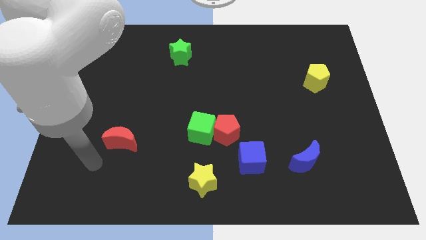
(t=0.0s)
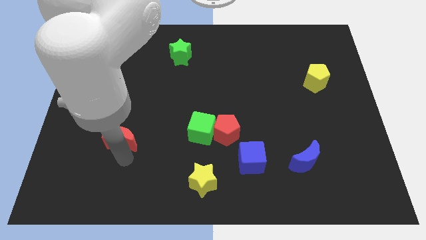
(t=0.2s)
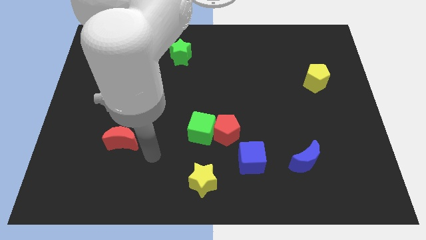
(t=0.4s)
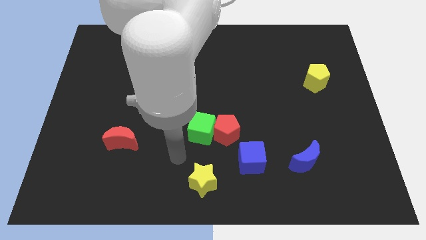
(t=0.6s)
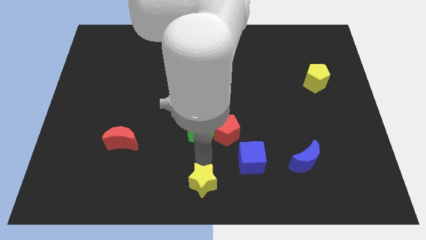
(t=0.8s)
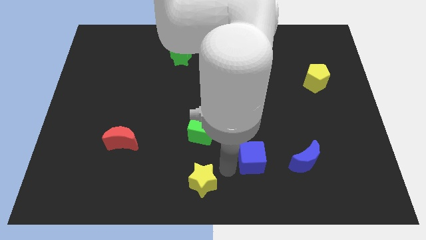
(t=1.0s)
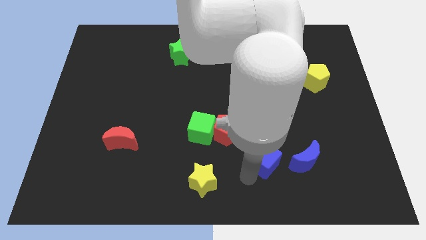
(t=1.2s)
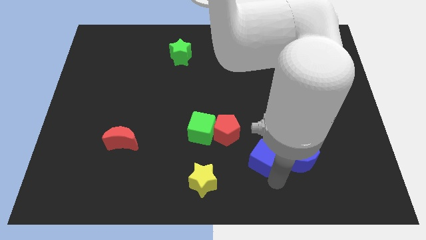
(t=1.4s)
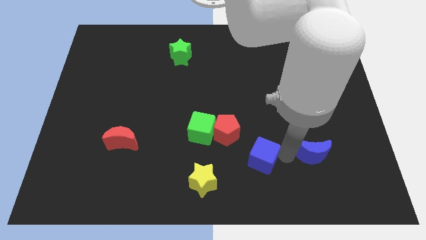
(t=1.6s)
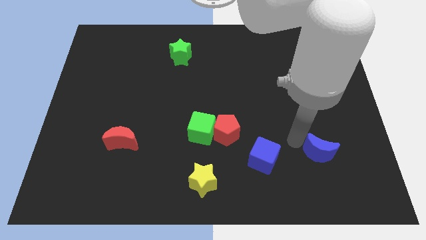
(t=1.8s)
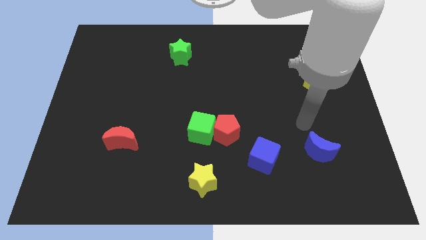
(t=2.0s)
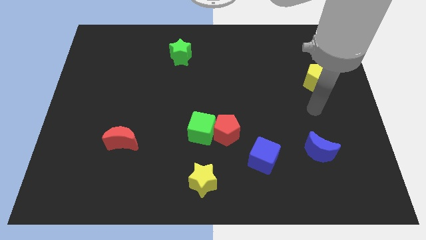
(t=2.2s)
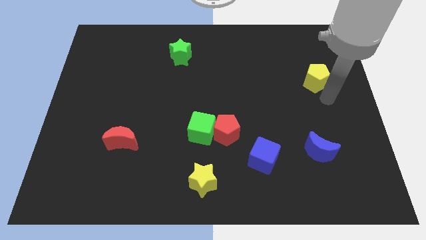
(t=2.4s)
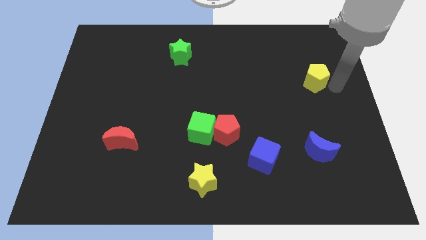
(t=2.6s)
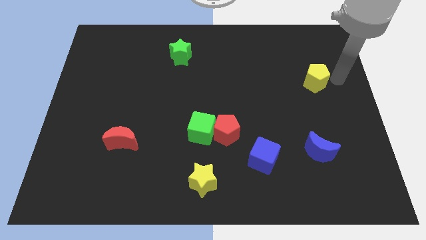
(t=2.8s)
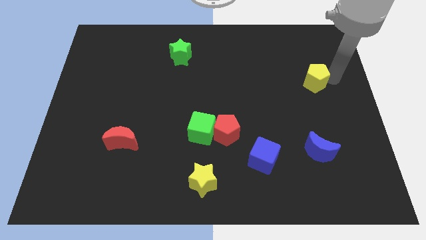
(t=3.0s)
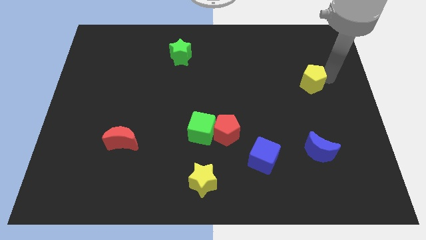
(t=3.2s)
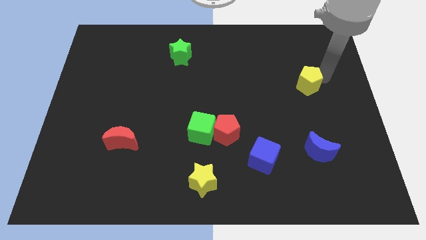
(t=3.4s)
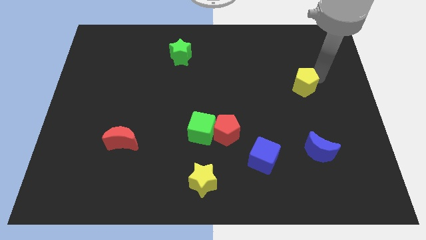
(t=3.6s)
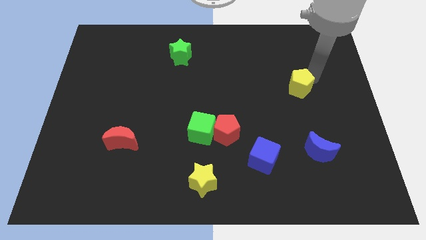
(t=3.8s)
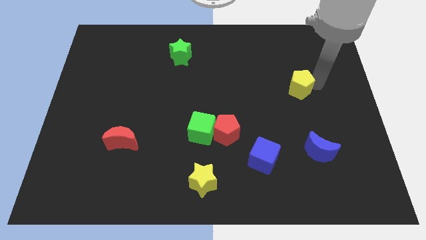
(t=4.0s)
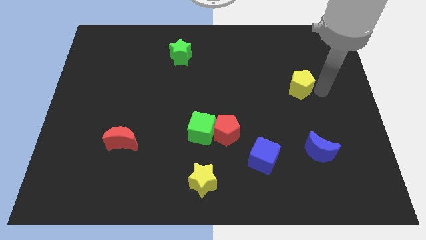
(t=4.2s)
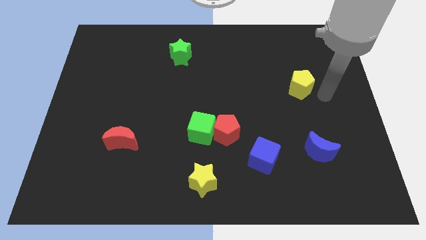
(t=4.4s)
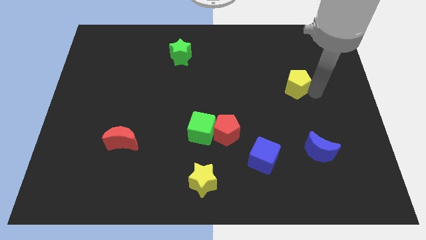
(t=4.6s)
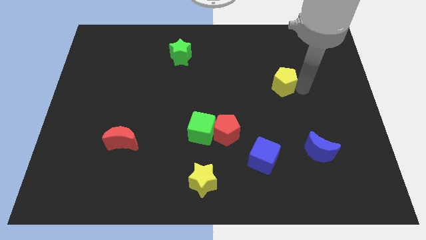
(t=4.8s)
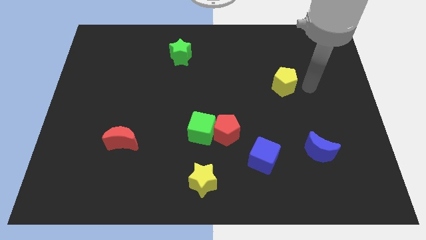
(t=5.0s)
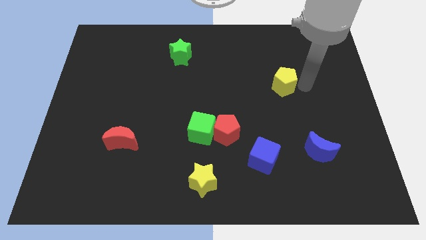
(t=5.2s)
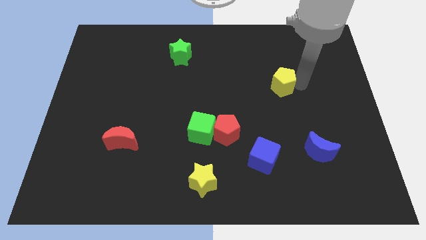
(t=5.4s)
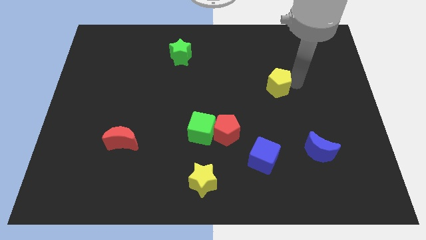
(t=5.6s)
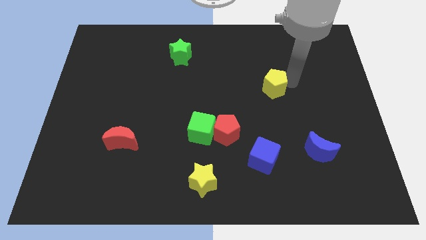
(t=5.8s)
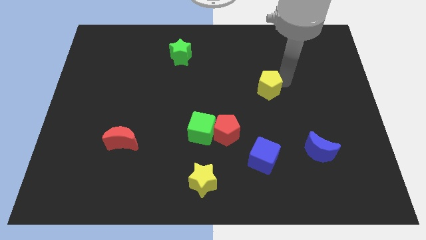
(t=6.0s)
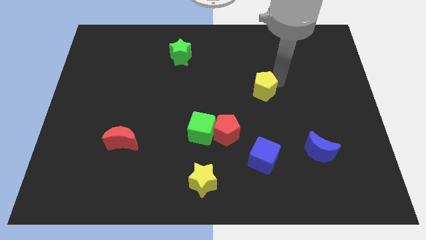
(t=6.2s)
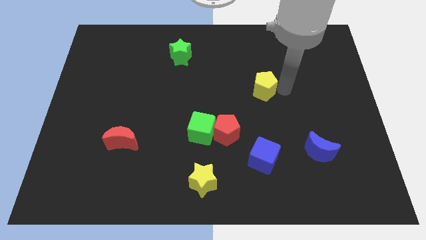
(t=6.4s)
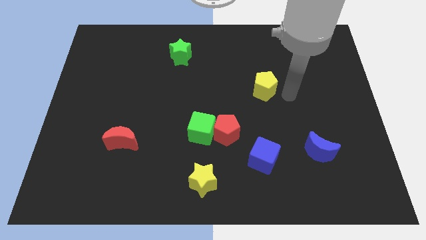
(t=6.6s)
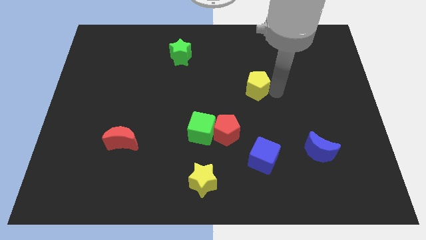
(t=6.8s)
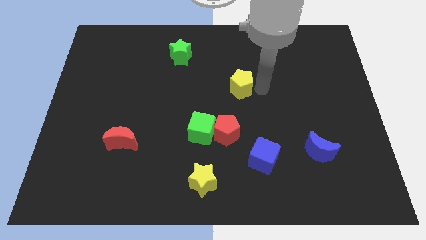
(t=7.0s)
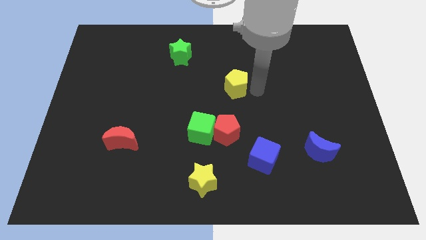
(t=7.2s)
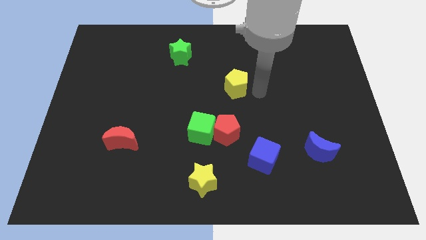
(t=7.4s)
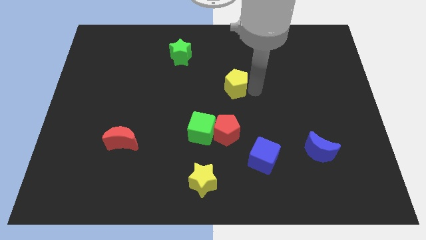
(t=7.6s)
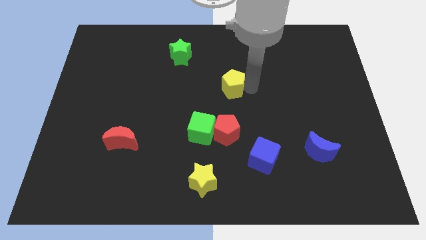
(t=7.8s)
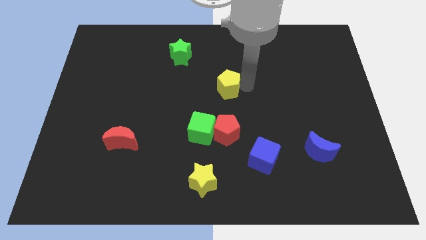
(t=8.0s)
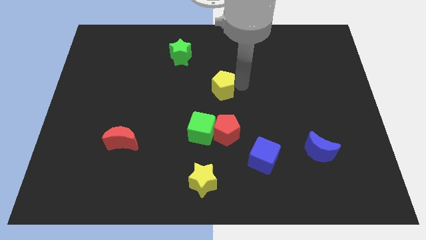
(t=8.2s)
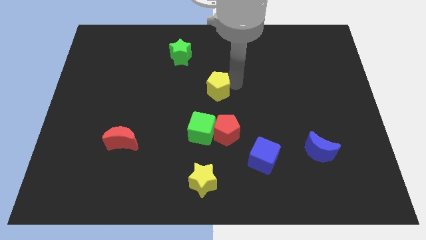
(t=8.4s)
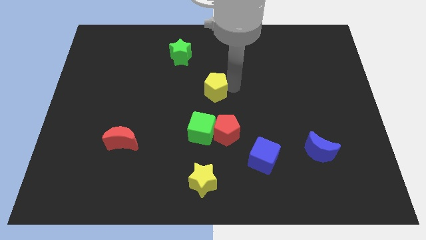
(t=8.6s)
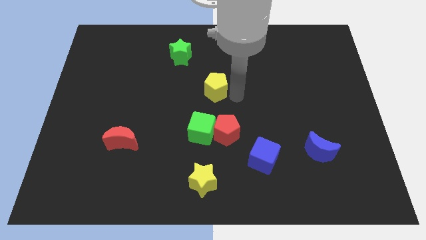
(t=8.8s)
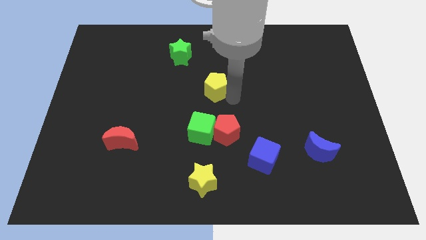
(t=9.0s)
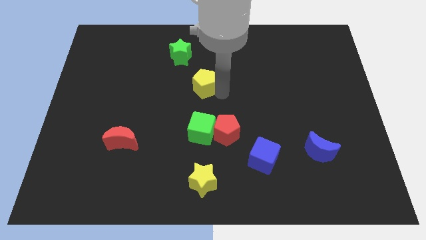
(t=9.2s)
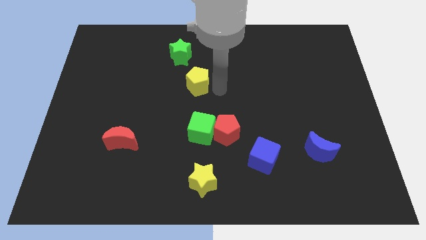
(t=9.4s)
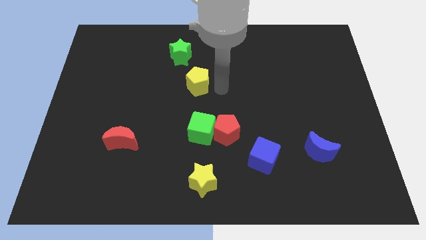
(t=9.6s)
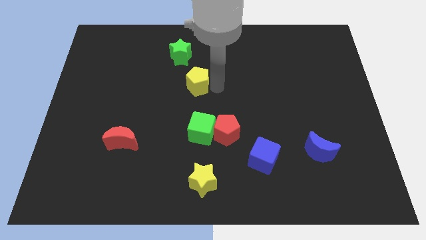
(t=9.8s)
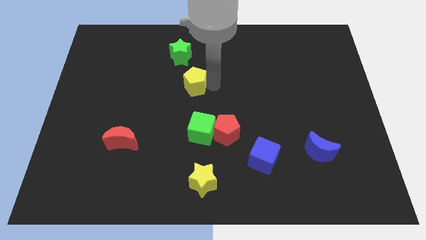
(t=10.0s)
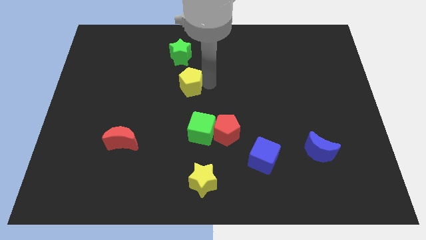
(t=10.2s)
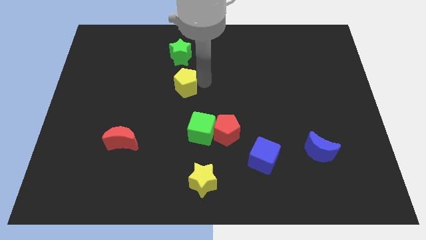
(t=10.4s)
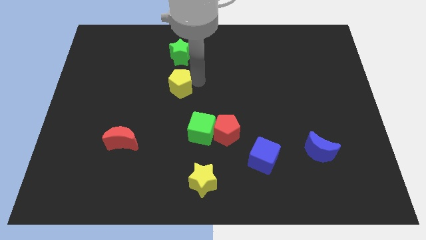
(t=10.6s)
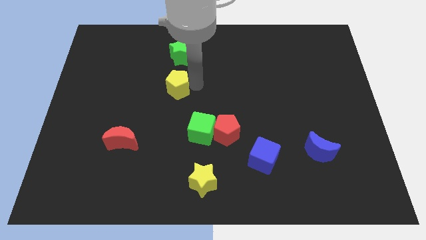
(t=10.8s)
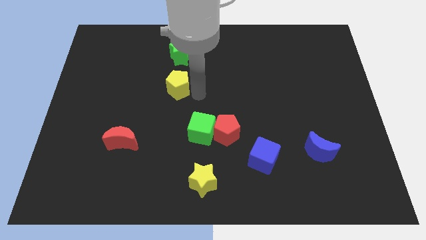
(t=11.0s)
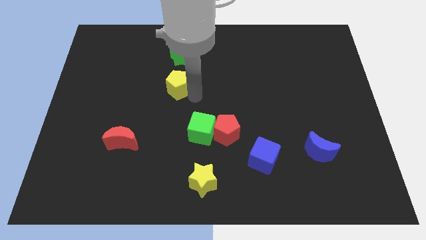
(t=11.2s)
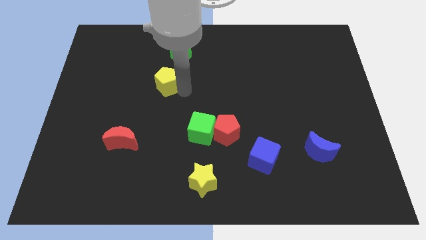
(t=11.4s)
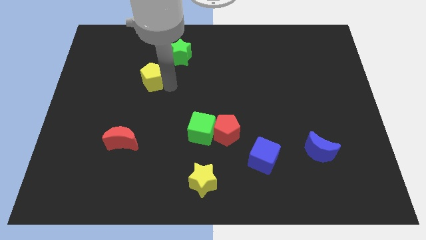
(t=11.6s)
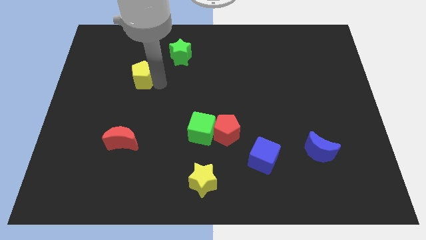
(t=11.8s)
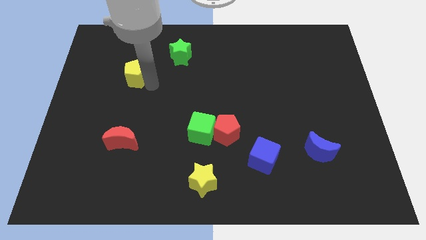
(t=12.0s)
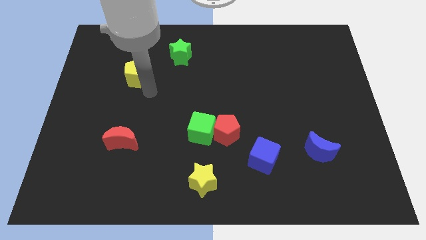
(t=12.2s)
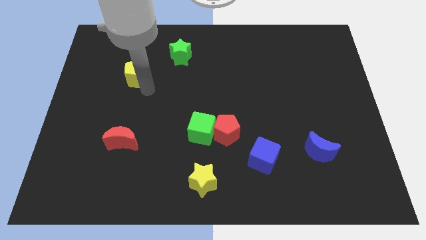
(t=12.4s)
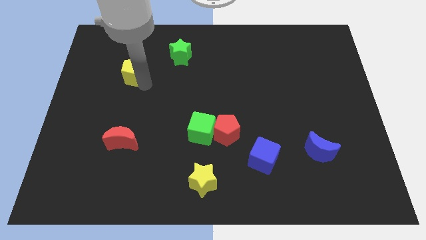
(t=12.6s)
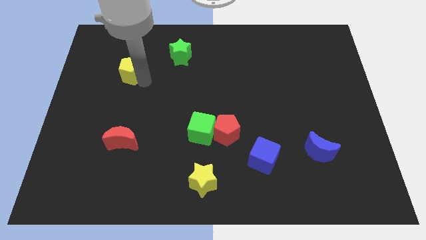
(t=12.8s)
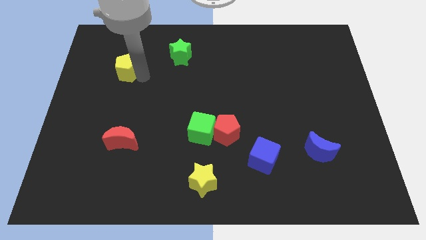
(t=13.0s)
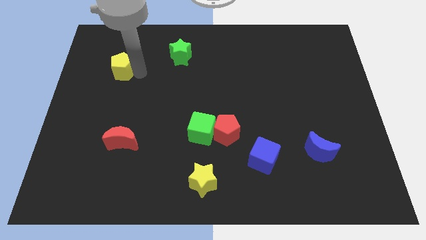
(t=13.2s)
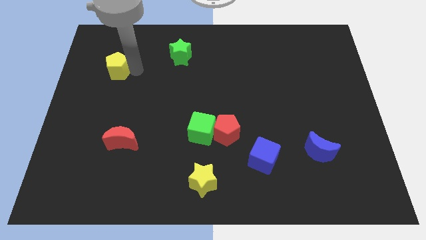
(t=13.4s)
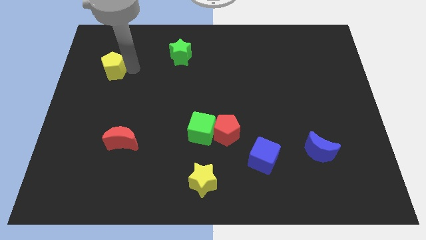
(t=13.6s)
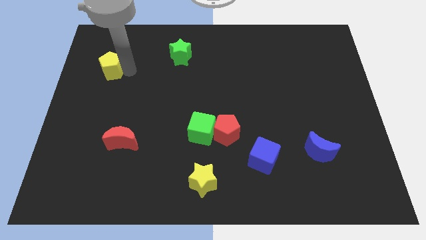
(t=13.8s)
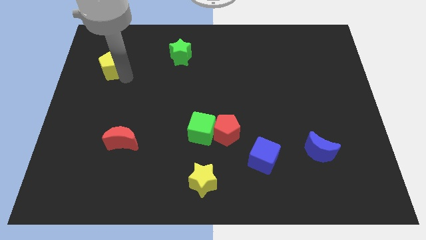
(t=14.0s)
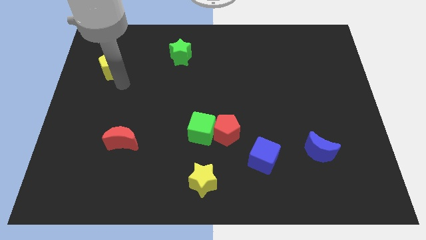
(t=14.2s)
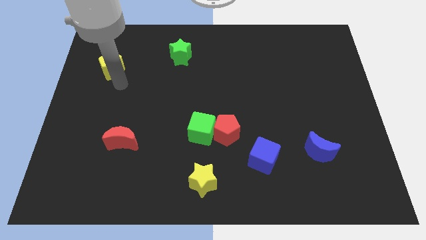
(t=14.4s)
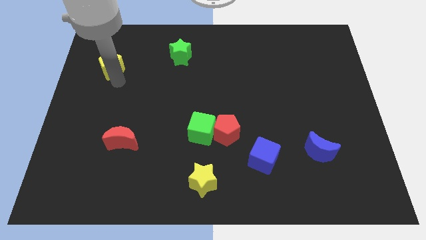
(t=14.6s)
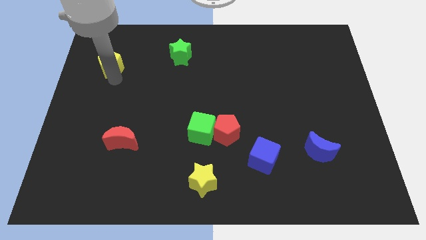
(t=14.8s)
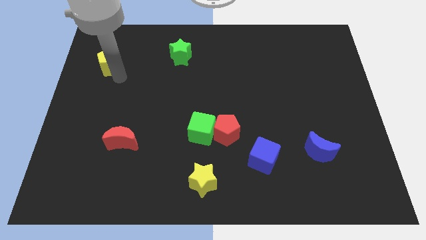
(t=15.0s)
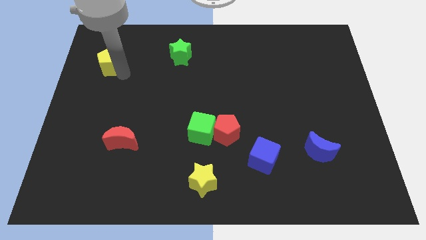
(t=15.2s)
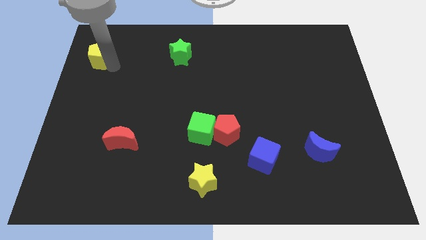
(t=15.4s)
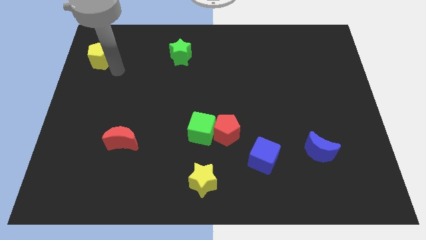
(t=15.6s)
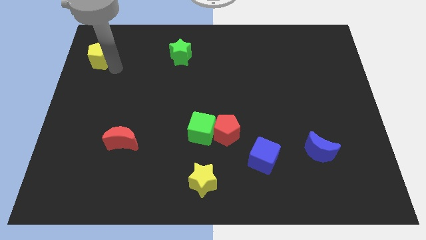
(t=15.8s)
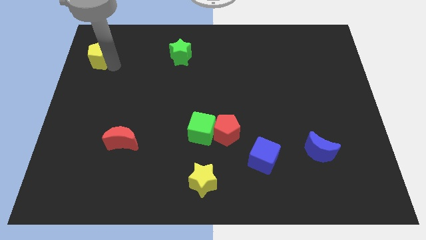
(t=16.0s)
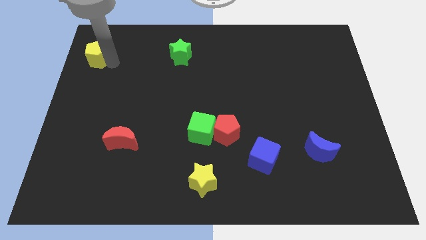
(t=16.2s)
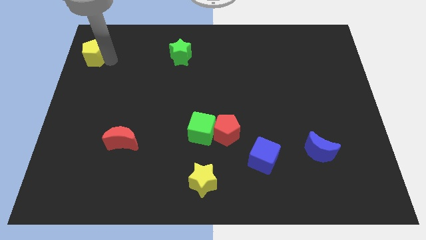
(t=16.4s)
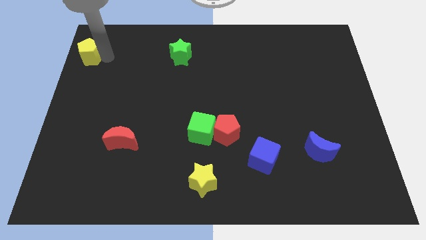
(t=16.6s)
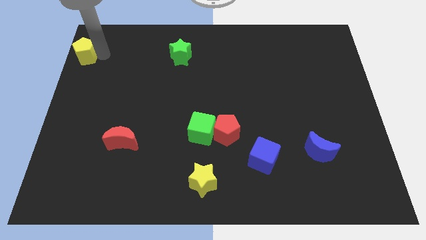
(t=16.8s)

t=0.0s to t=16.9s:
put the yellow pentagon to the upper left corner
